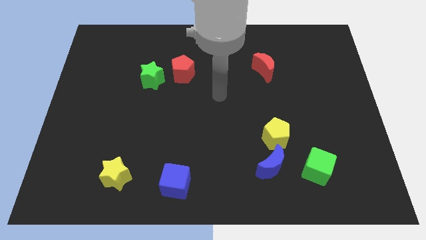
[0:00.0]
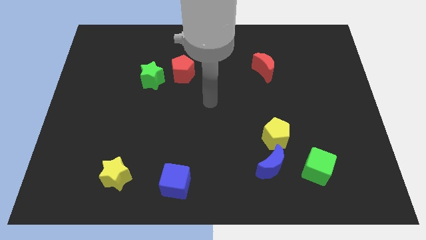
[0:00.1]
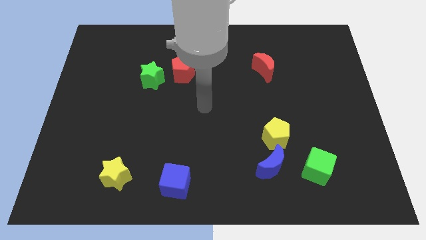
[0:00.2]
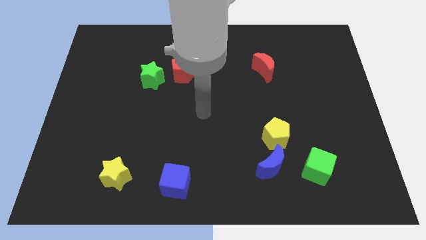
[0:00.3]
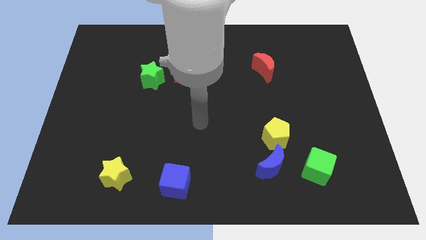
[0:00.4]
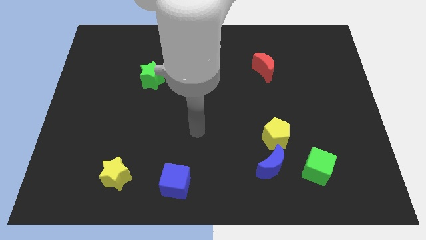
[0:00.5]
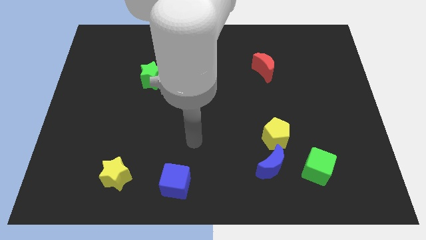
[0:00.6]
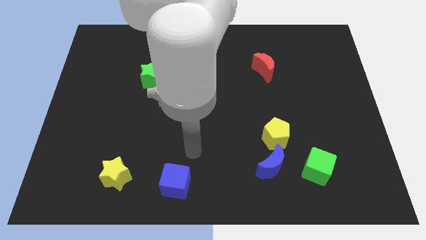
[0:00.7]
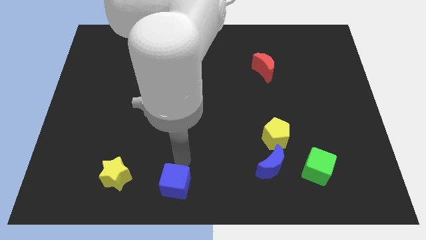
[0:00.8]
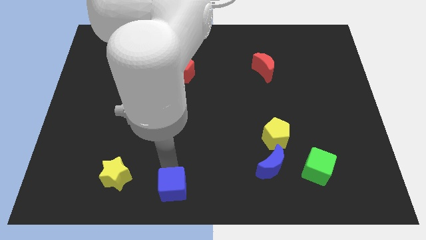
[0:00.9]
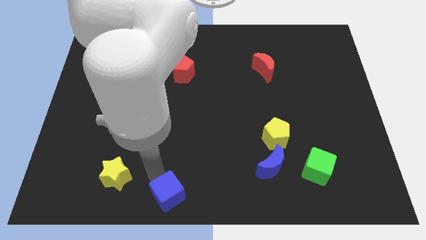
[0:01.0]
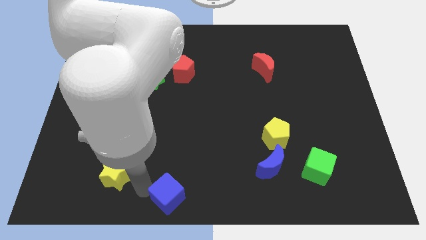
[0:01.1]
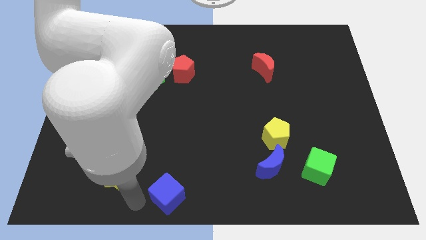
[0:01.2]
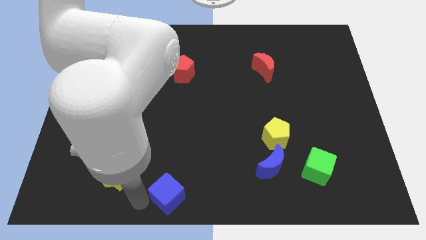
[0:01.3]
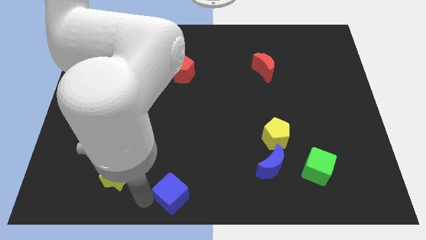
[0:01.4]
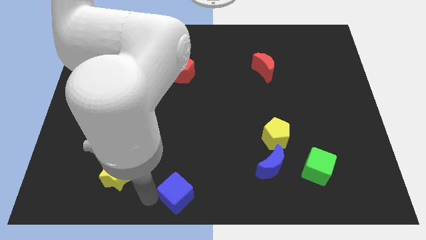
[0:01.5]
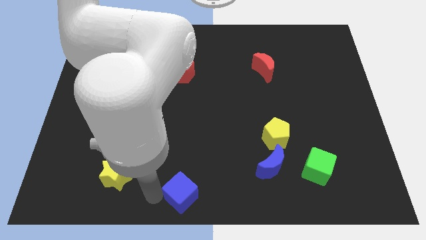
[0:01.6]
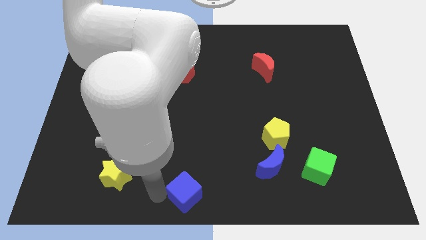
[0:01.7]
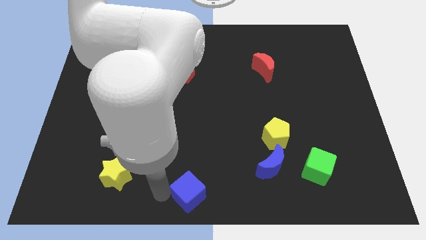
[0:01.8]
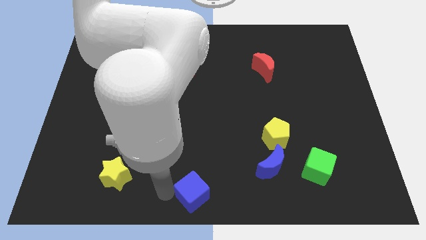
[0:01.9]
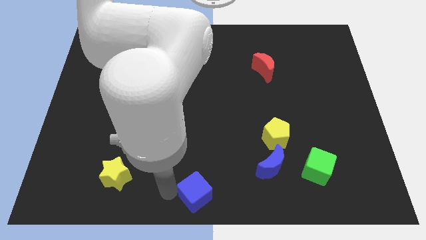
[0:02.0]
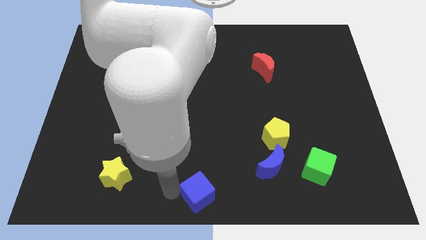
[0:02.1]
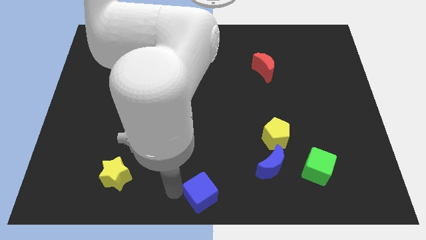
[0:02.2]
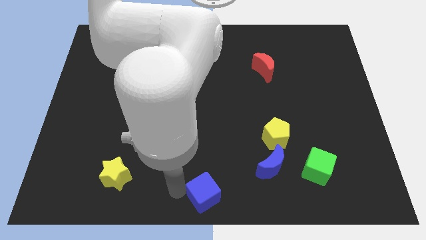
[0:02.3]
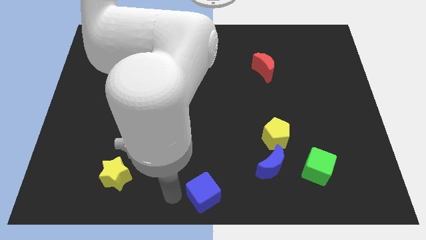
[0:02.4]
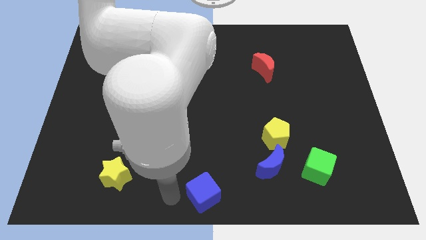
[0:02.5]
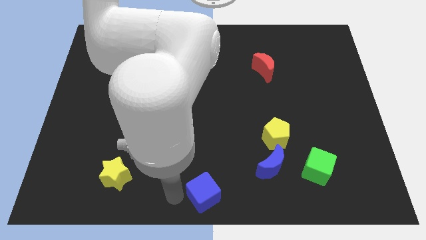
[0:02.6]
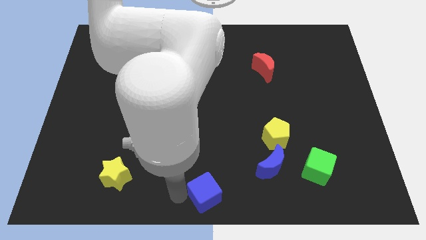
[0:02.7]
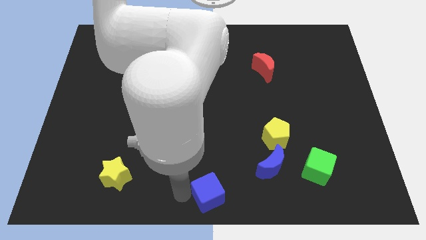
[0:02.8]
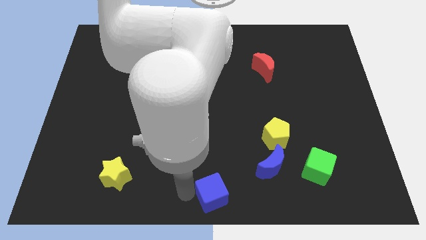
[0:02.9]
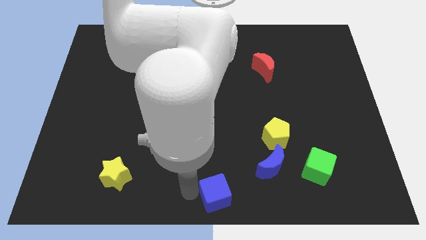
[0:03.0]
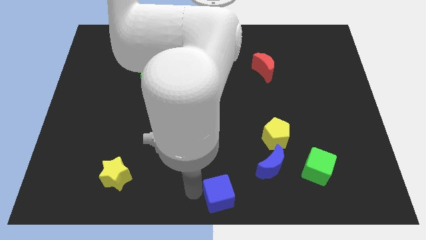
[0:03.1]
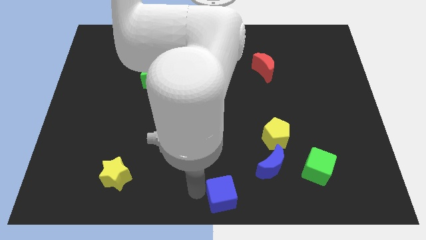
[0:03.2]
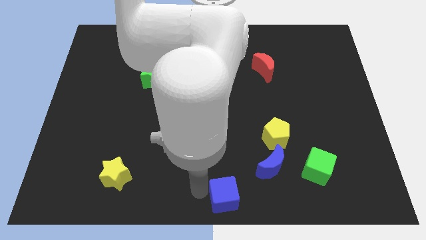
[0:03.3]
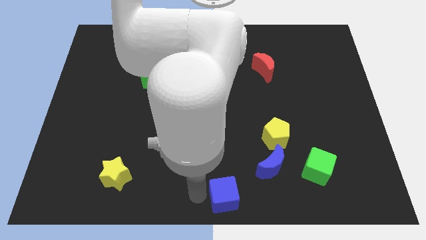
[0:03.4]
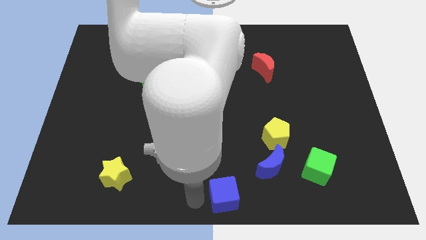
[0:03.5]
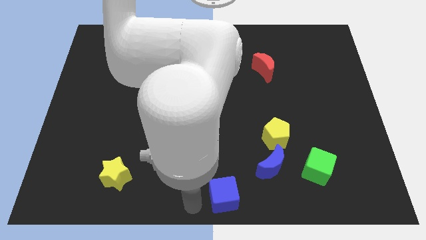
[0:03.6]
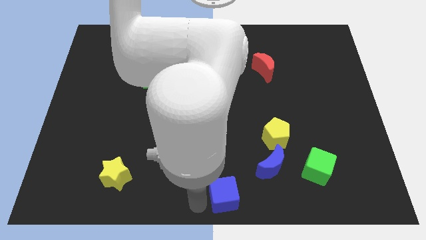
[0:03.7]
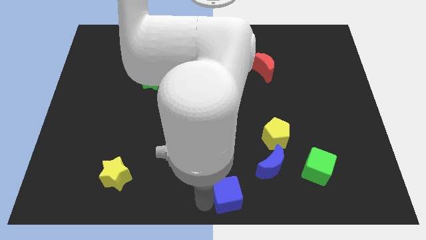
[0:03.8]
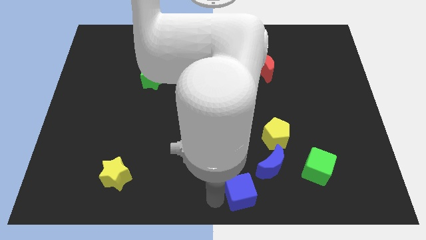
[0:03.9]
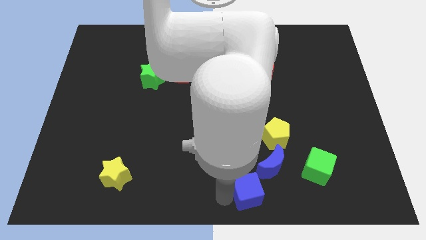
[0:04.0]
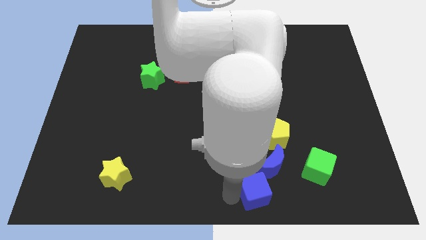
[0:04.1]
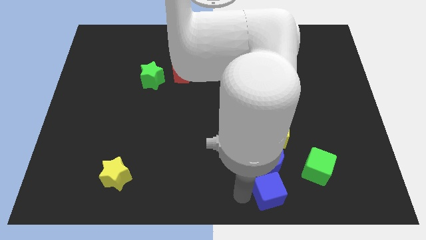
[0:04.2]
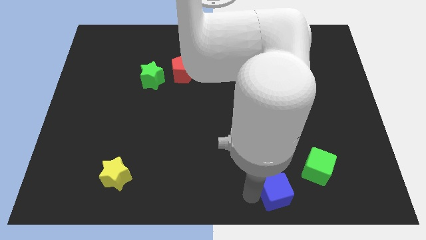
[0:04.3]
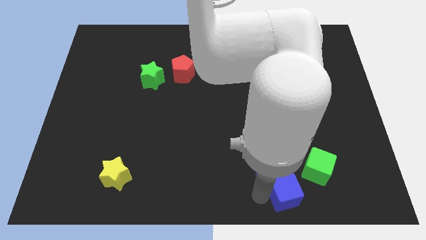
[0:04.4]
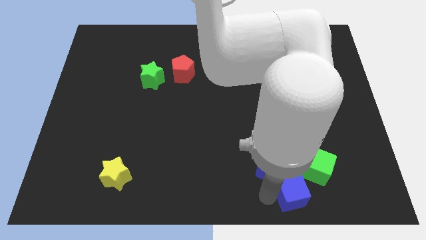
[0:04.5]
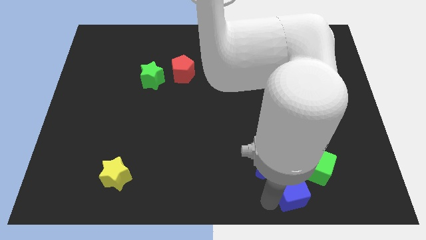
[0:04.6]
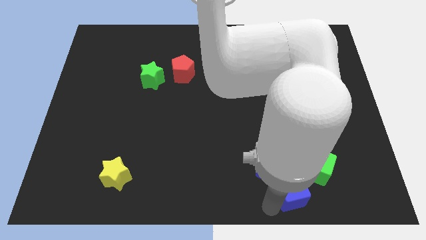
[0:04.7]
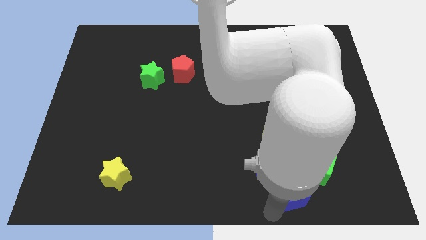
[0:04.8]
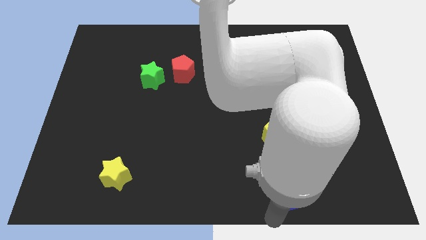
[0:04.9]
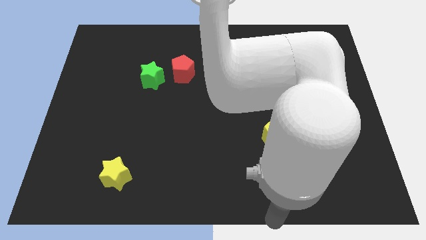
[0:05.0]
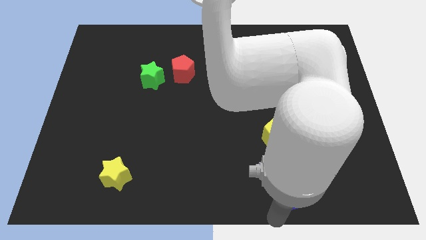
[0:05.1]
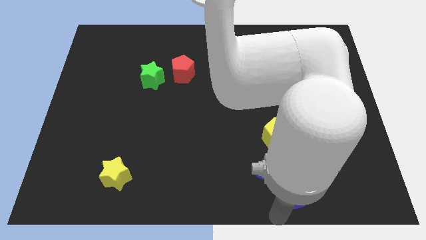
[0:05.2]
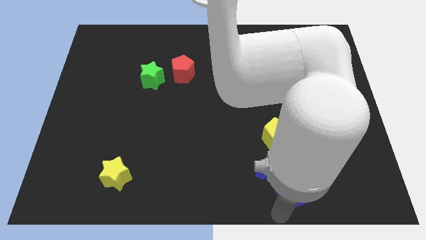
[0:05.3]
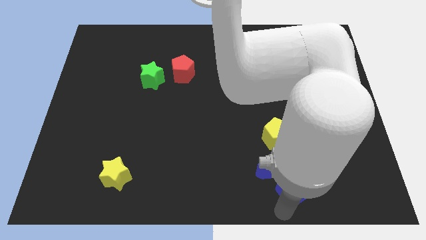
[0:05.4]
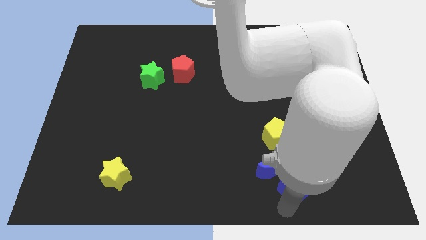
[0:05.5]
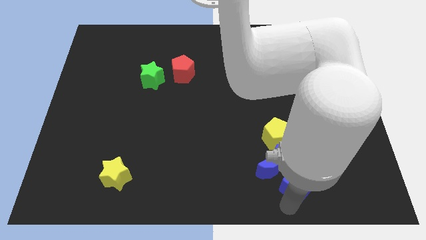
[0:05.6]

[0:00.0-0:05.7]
push the blue cube towards the green cube
